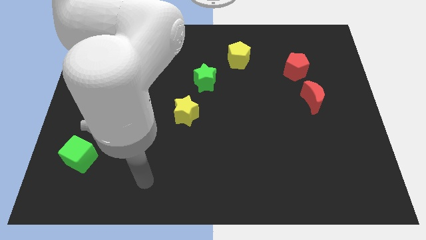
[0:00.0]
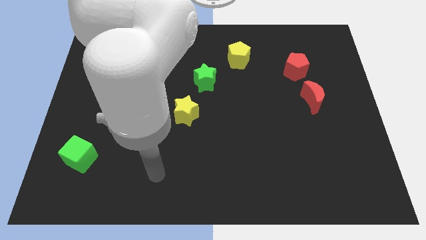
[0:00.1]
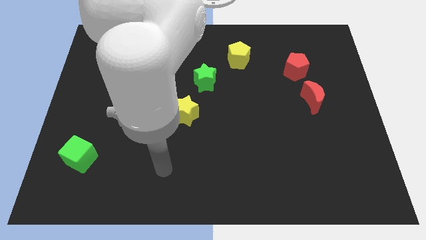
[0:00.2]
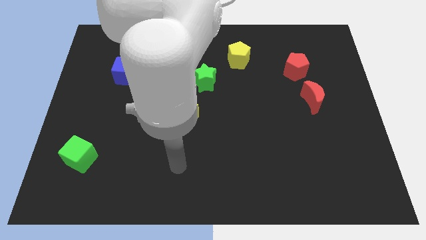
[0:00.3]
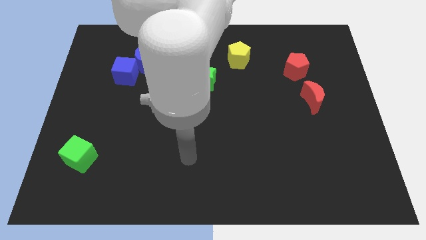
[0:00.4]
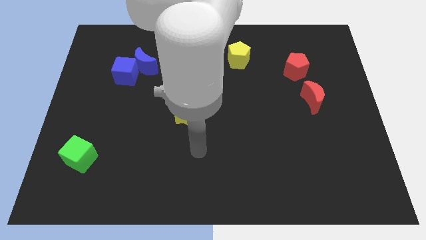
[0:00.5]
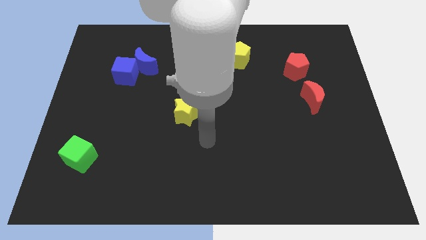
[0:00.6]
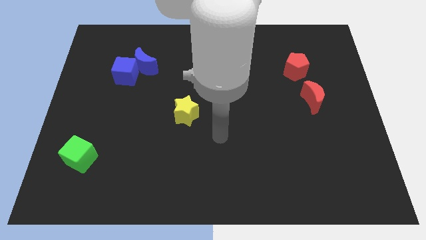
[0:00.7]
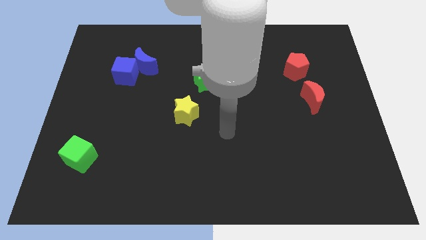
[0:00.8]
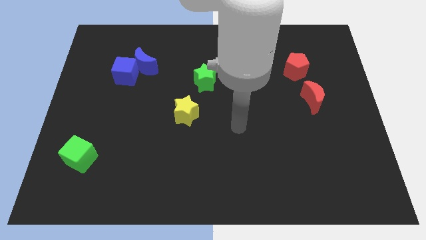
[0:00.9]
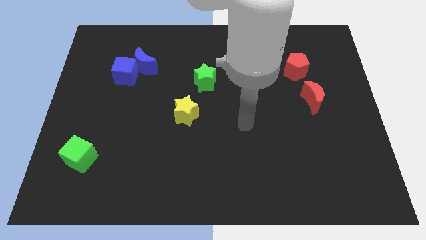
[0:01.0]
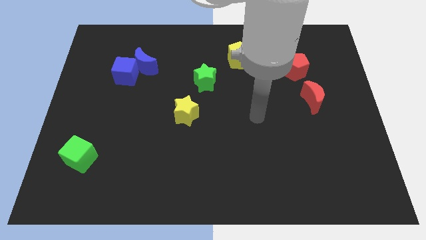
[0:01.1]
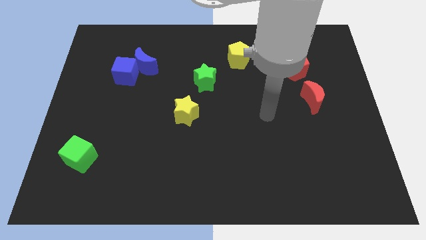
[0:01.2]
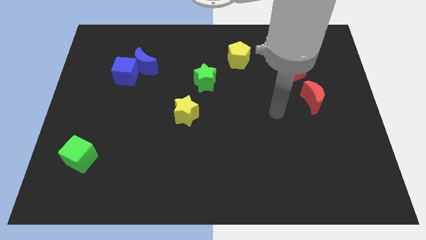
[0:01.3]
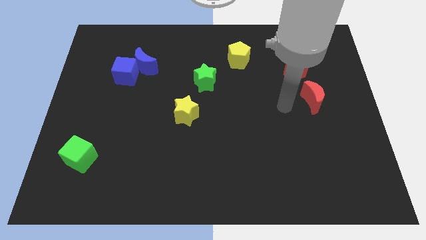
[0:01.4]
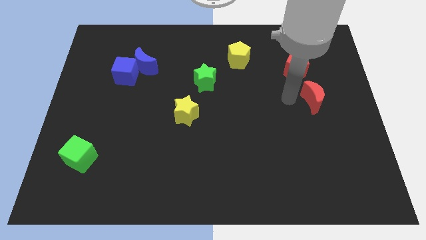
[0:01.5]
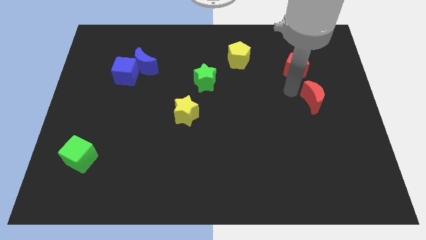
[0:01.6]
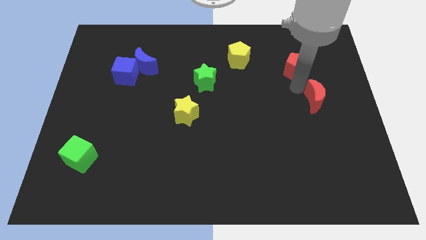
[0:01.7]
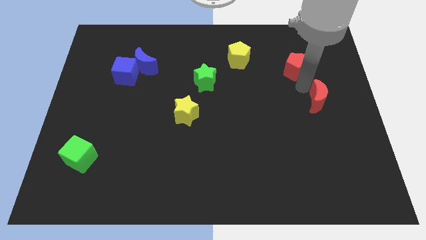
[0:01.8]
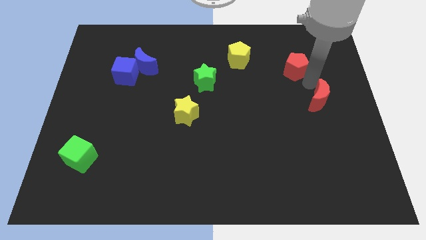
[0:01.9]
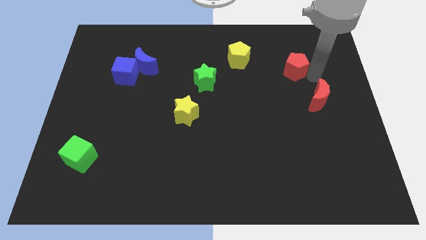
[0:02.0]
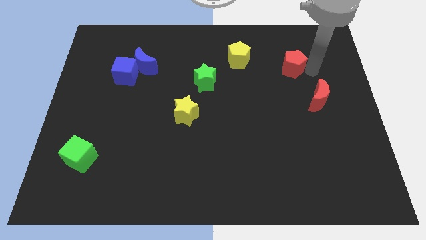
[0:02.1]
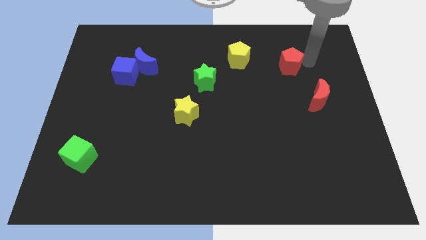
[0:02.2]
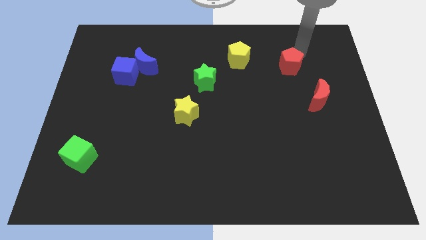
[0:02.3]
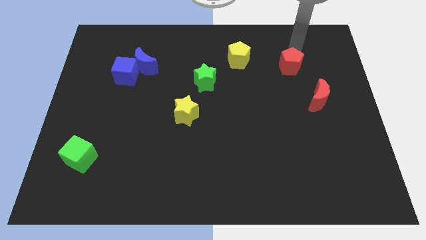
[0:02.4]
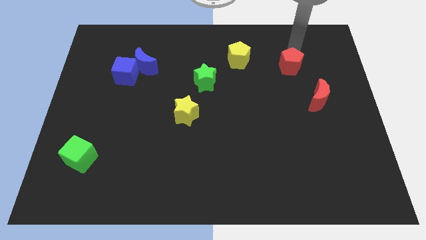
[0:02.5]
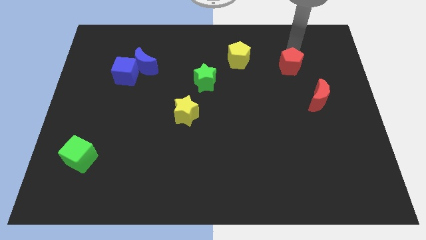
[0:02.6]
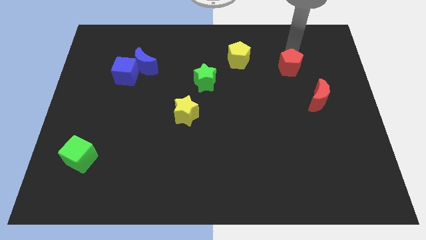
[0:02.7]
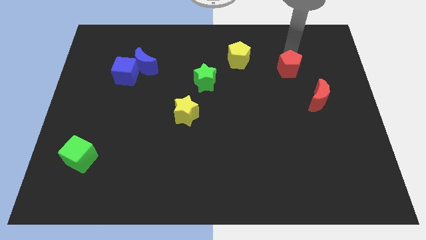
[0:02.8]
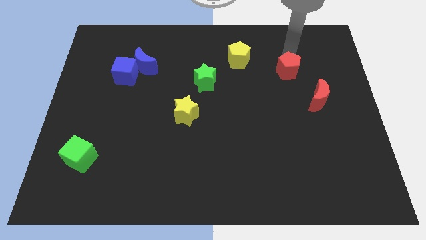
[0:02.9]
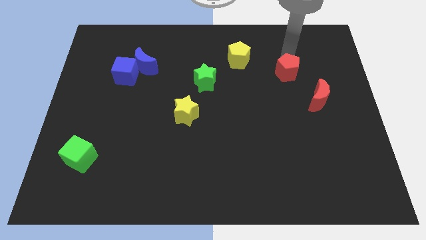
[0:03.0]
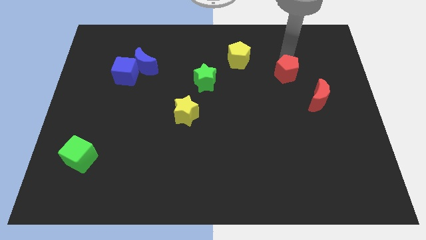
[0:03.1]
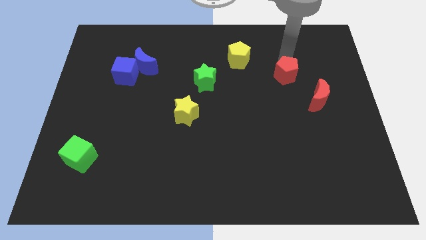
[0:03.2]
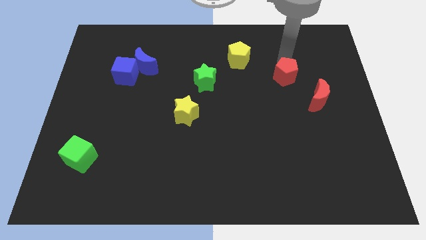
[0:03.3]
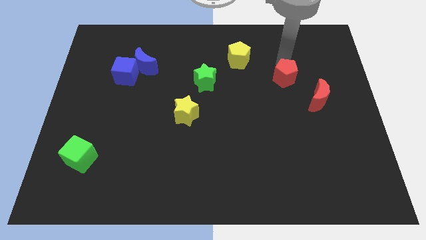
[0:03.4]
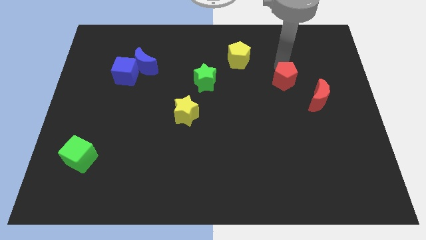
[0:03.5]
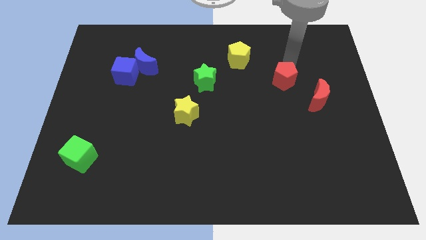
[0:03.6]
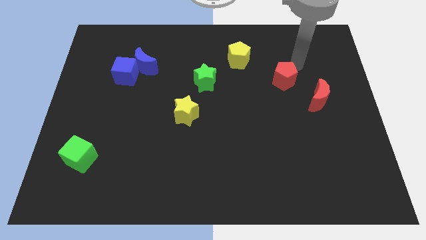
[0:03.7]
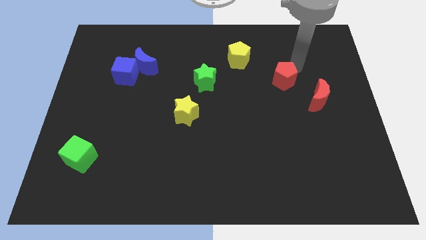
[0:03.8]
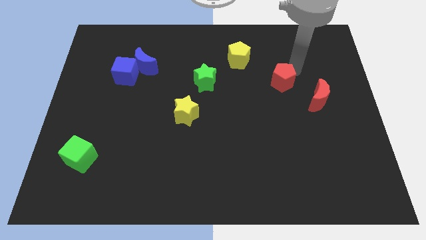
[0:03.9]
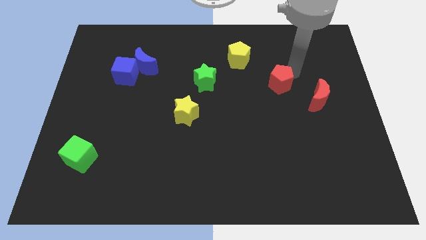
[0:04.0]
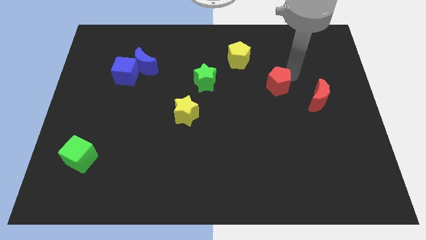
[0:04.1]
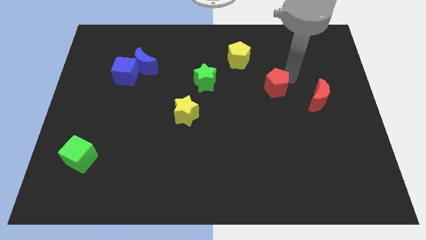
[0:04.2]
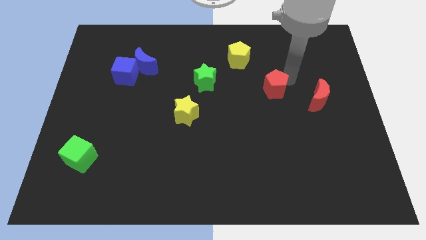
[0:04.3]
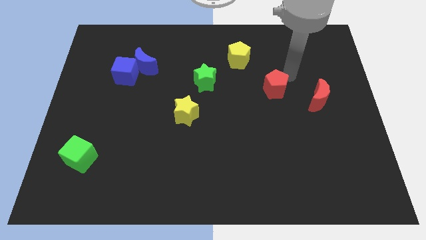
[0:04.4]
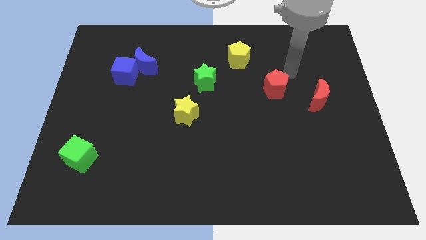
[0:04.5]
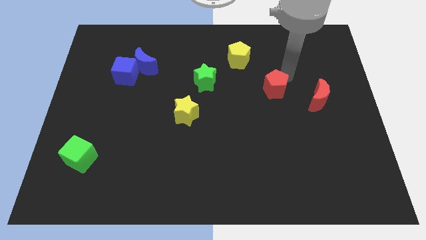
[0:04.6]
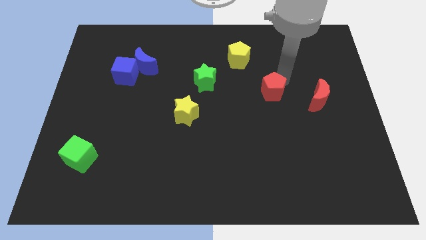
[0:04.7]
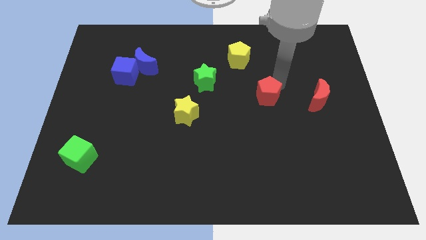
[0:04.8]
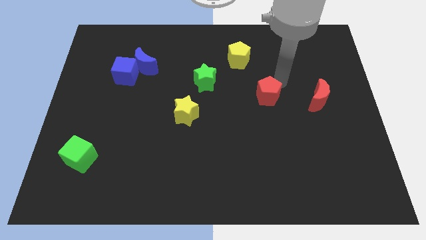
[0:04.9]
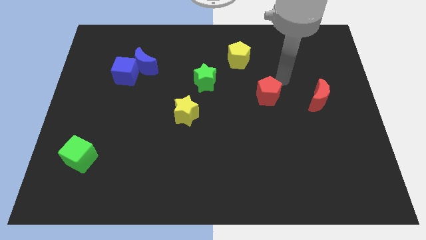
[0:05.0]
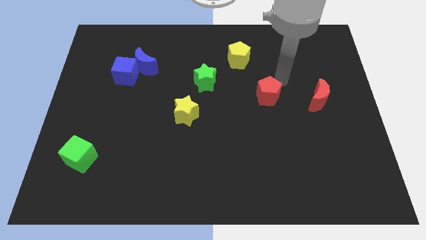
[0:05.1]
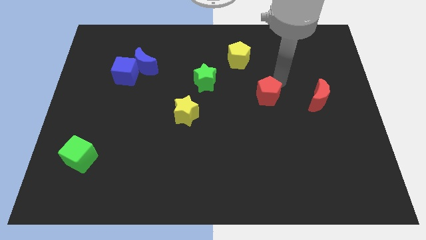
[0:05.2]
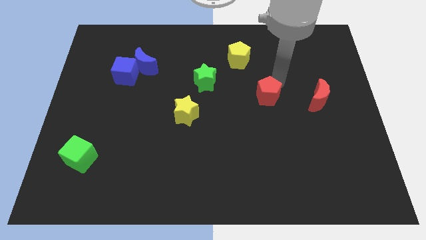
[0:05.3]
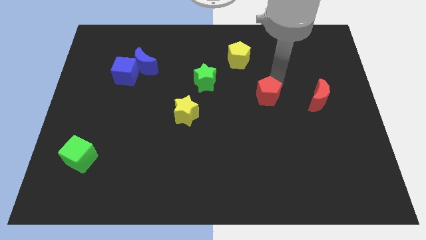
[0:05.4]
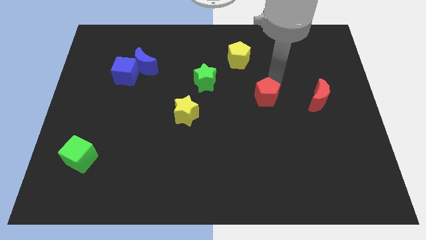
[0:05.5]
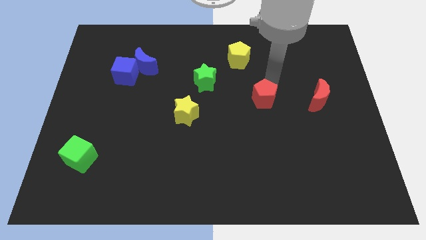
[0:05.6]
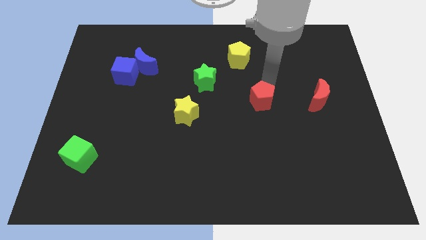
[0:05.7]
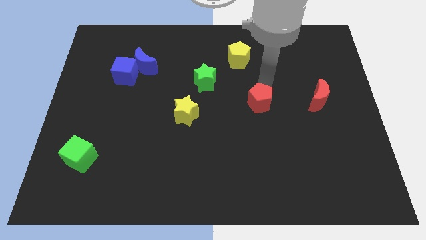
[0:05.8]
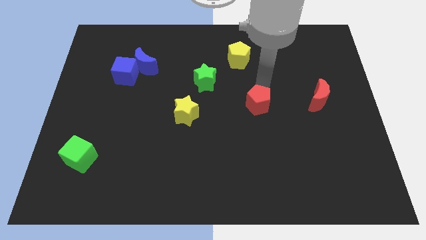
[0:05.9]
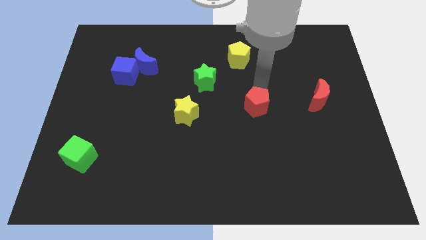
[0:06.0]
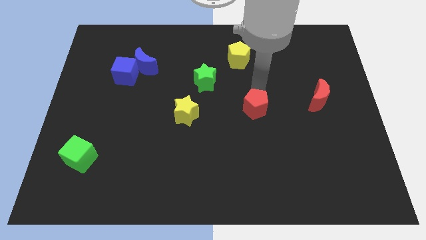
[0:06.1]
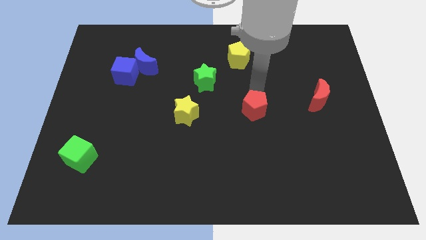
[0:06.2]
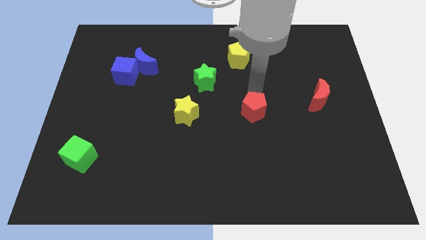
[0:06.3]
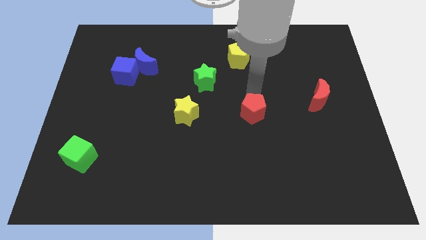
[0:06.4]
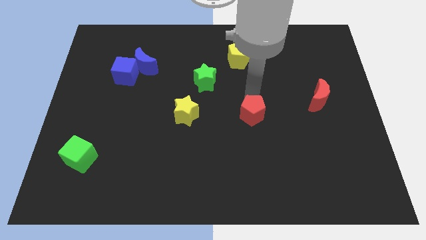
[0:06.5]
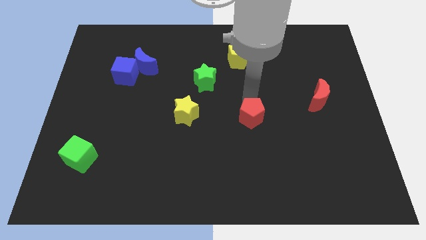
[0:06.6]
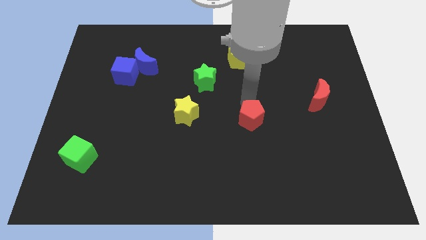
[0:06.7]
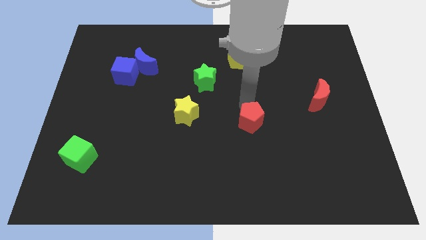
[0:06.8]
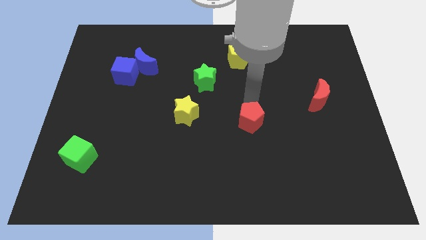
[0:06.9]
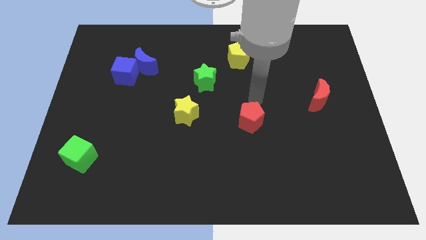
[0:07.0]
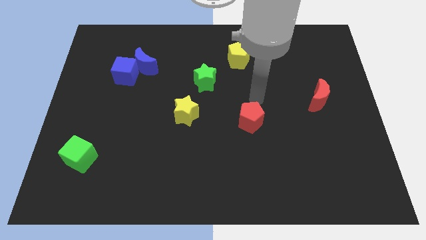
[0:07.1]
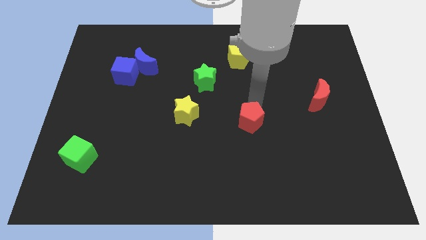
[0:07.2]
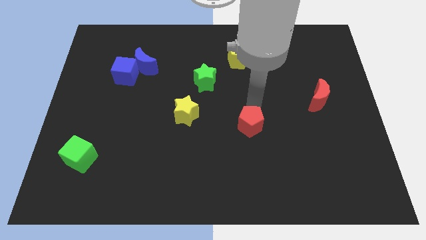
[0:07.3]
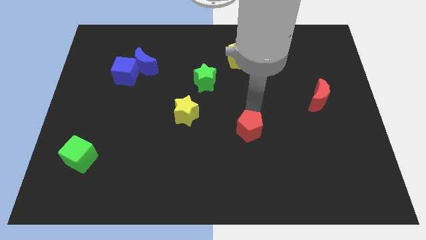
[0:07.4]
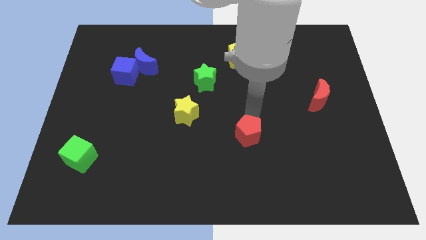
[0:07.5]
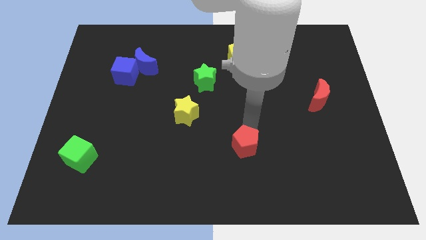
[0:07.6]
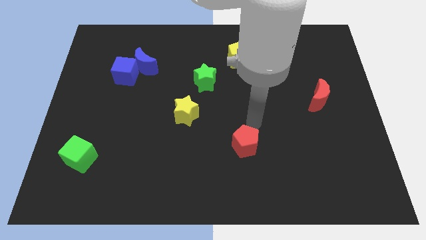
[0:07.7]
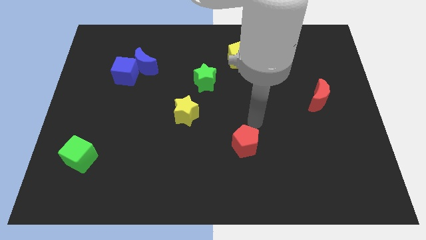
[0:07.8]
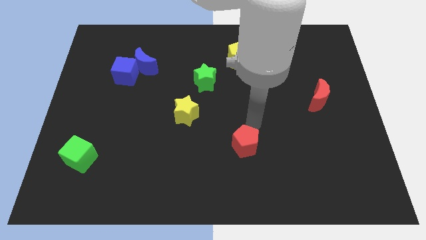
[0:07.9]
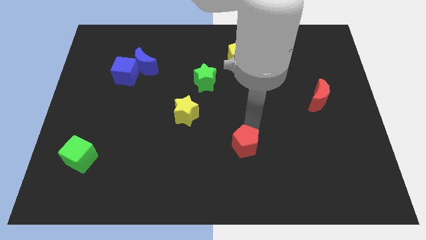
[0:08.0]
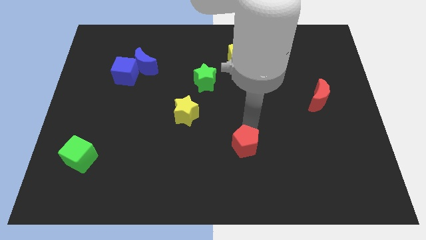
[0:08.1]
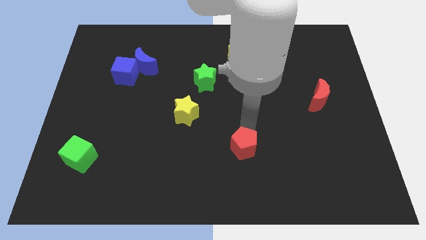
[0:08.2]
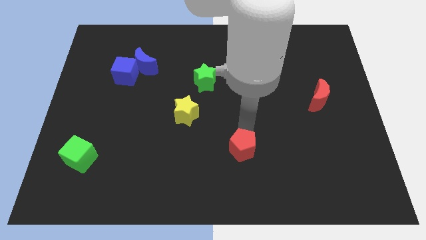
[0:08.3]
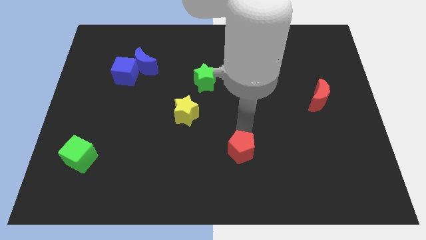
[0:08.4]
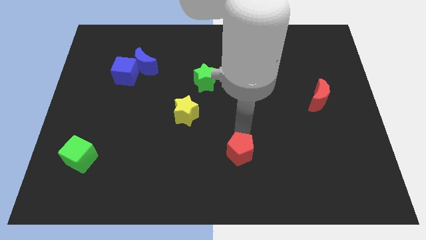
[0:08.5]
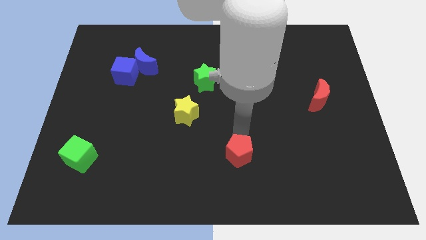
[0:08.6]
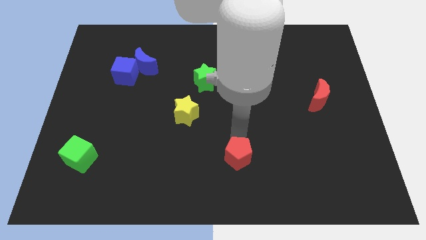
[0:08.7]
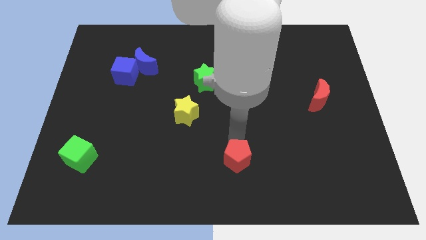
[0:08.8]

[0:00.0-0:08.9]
put the red pentagon to the bottom
